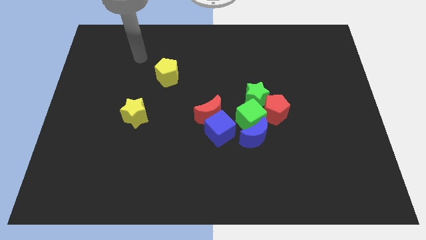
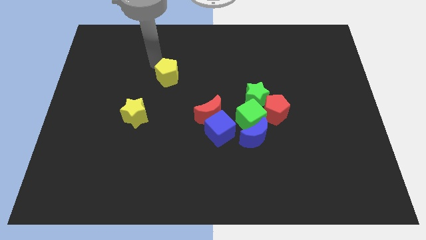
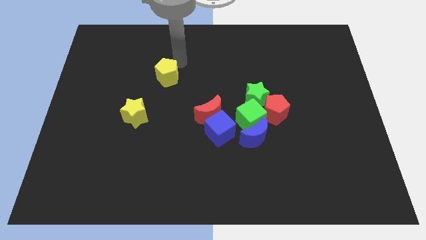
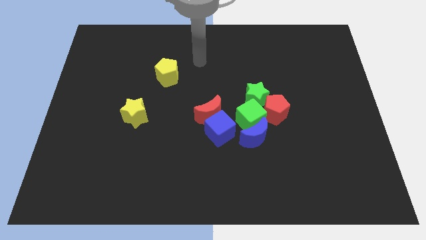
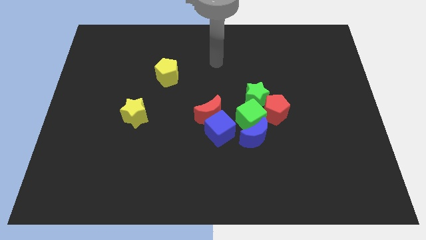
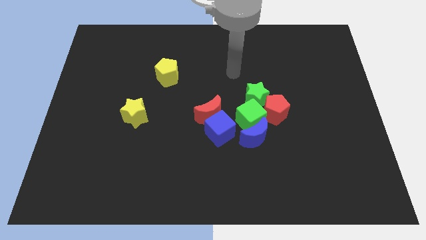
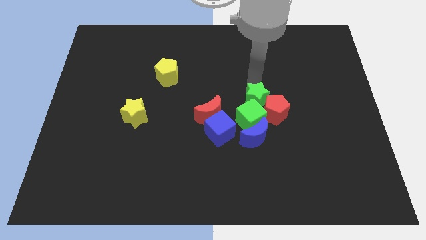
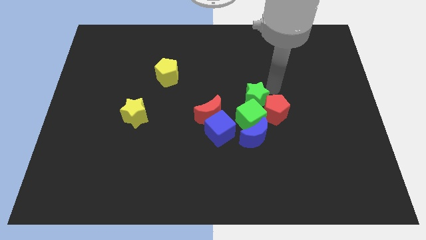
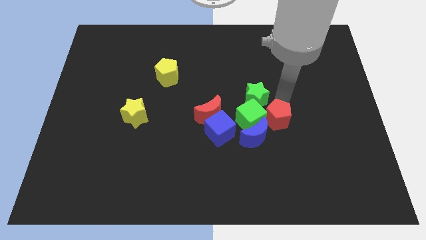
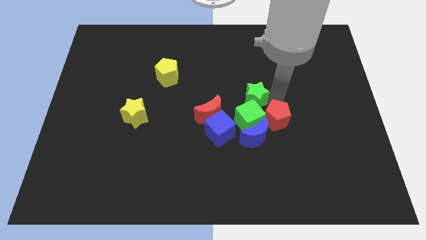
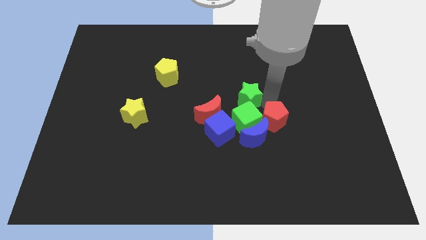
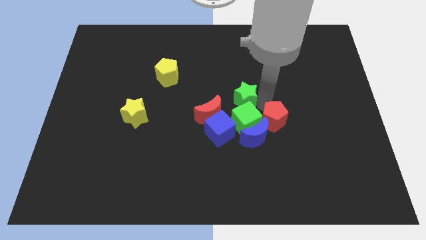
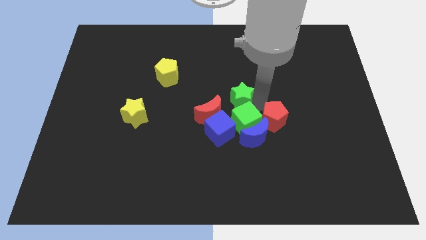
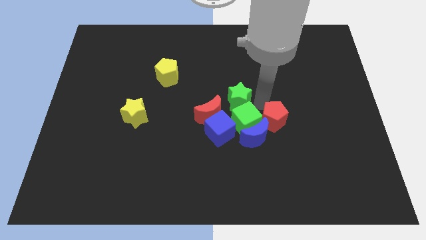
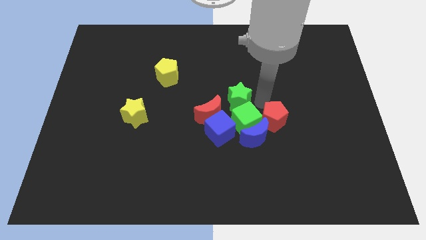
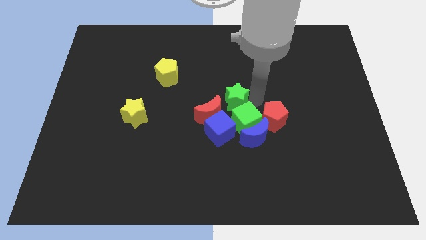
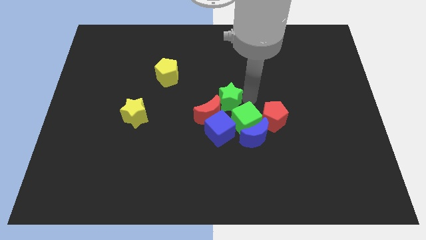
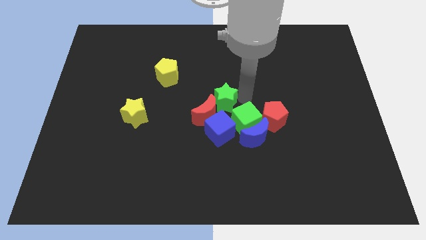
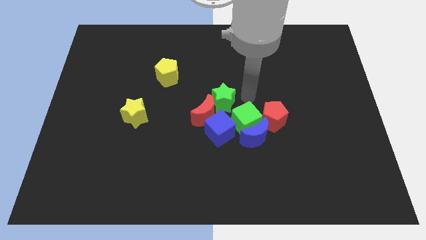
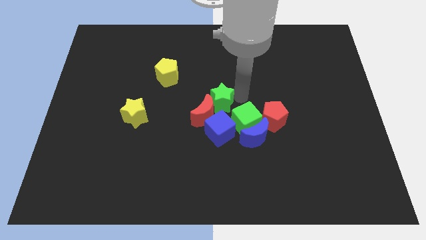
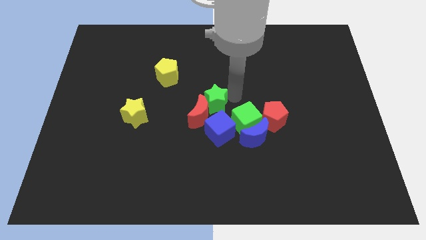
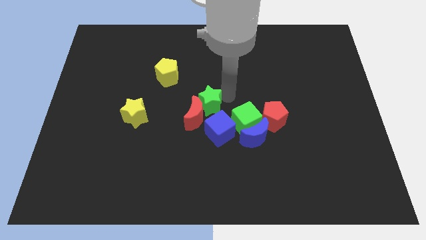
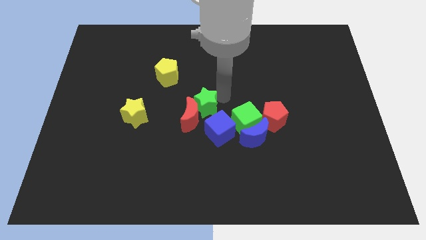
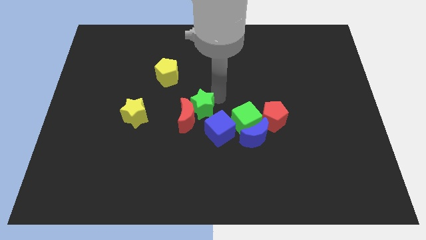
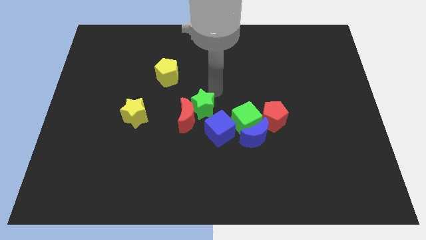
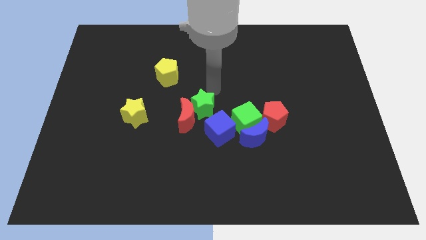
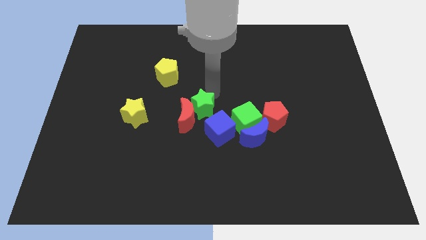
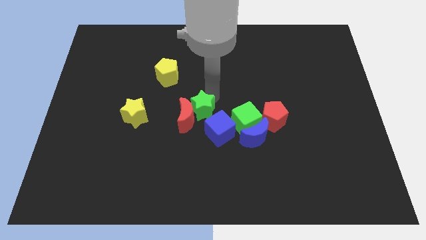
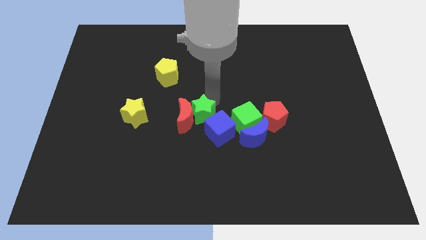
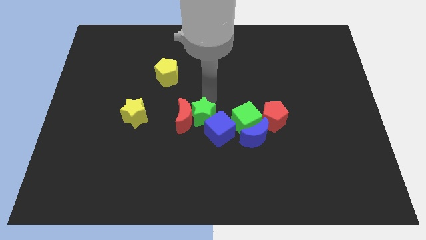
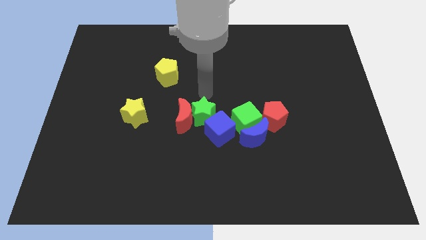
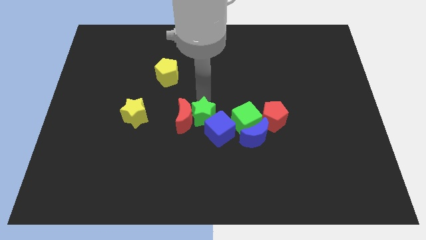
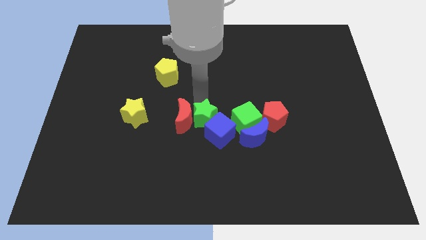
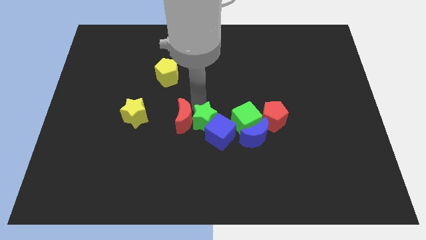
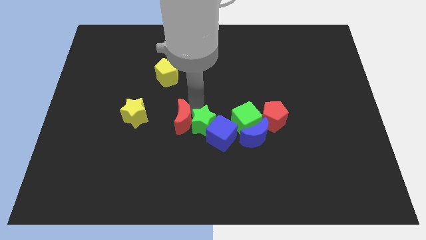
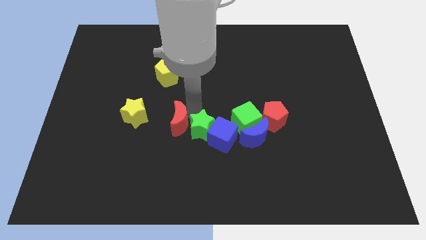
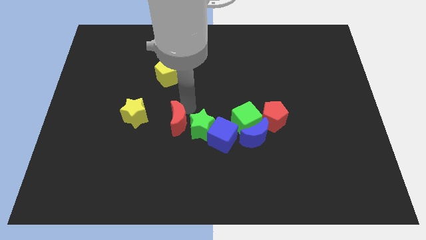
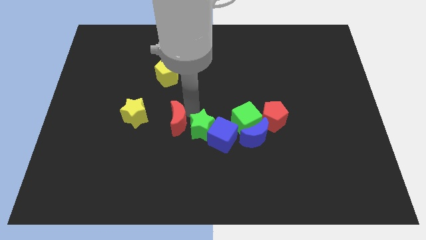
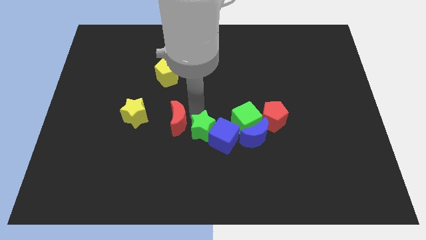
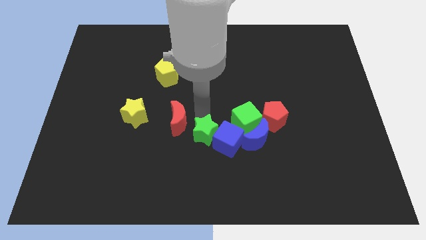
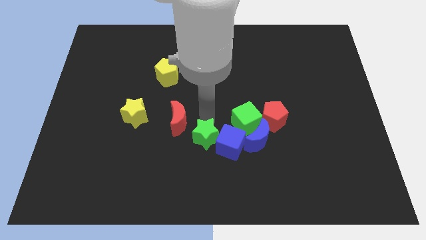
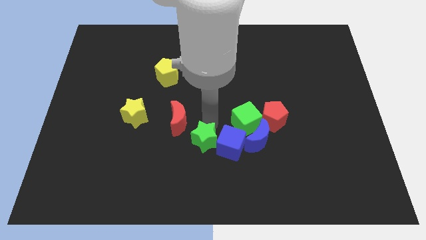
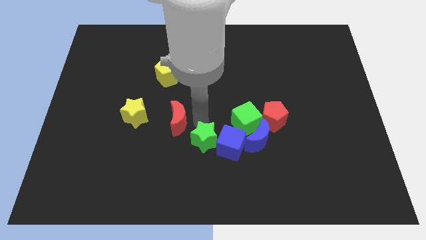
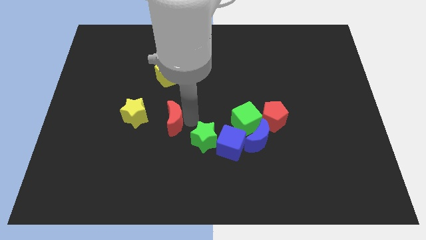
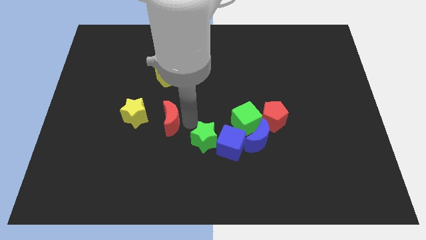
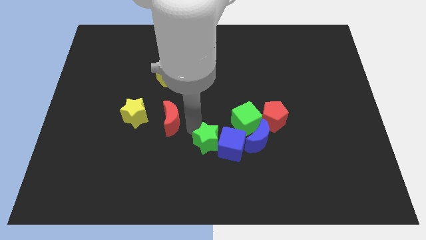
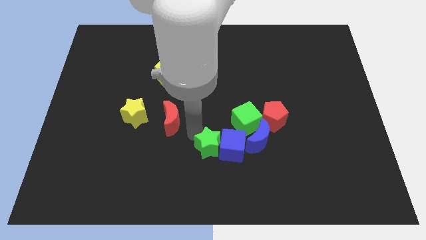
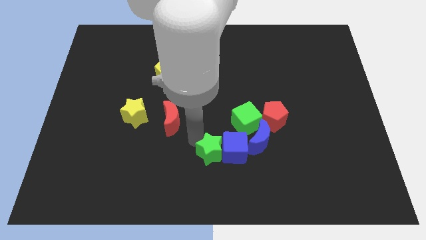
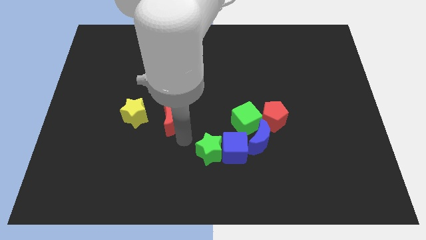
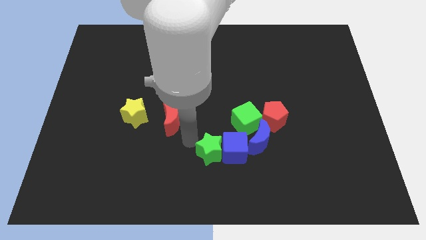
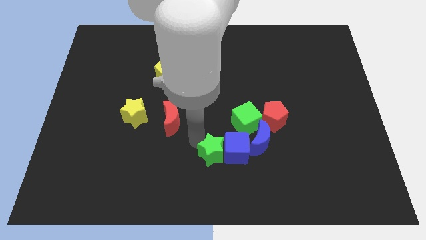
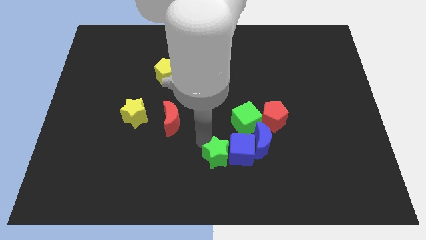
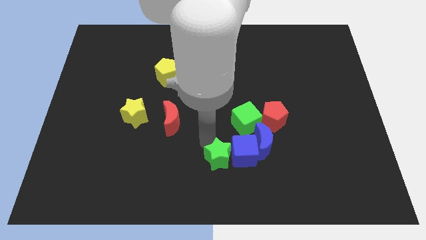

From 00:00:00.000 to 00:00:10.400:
slide the green star to the bottom left of the blue moon

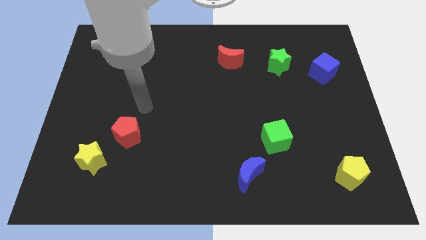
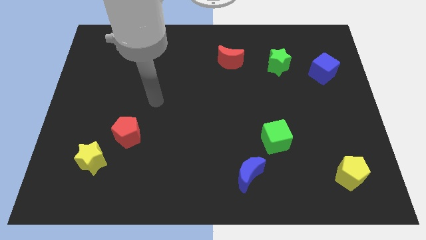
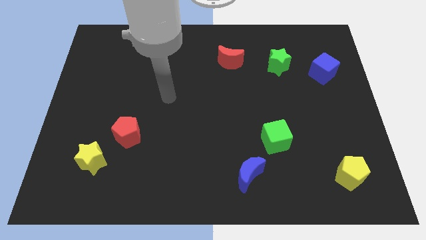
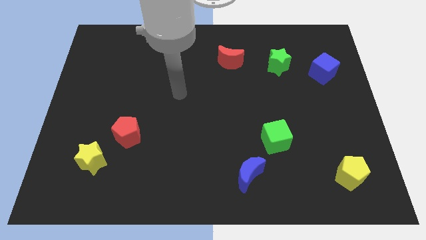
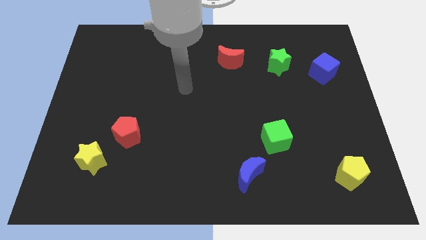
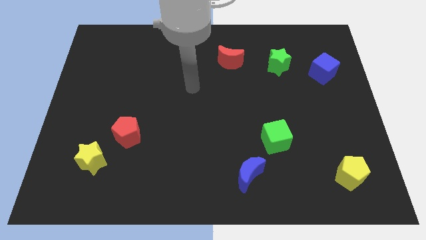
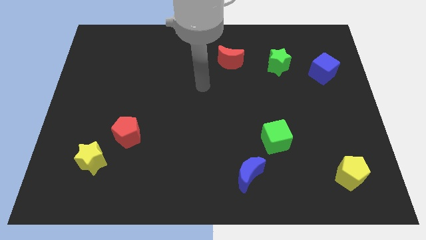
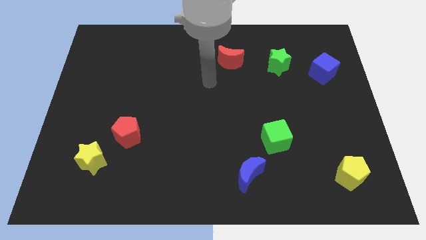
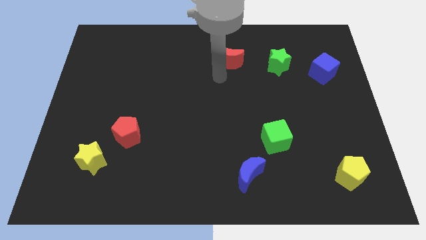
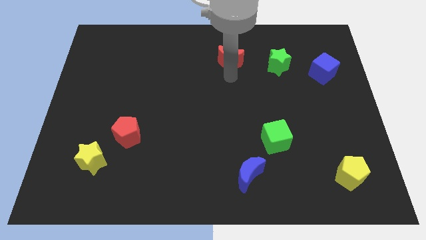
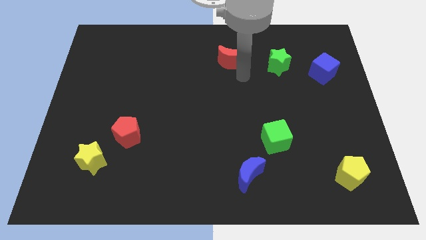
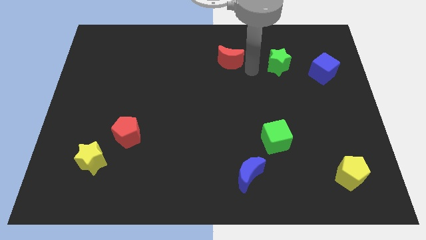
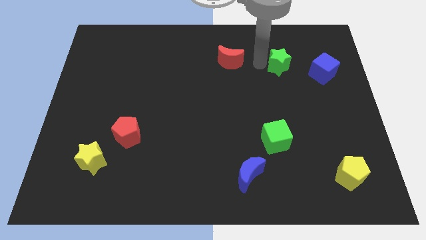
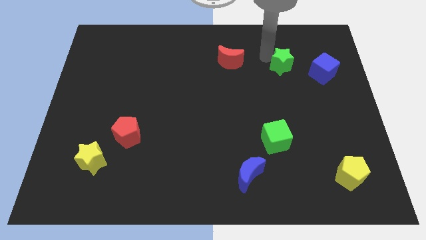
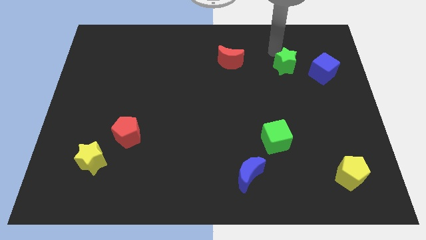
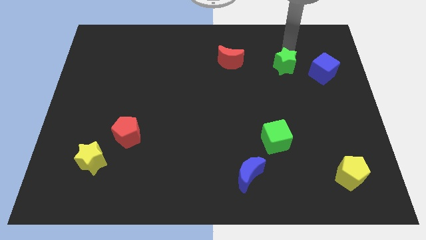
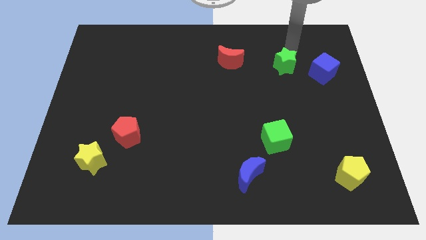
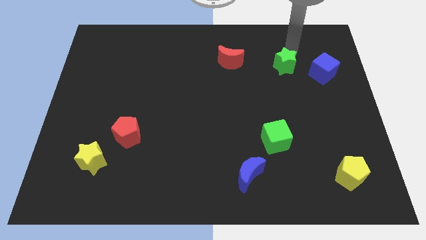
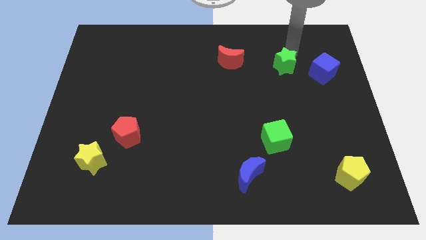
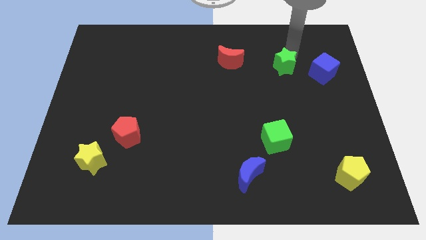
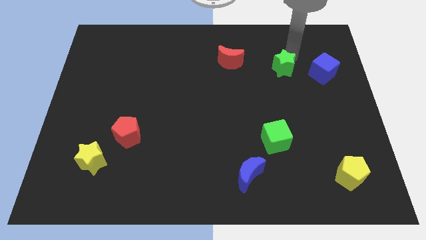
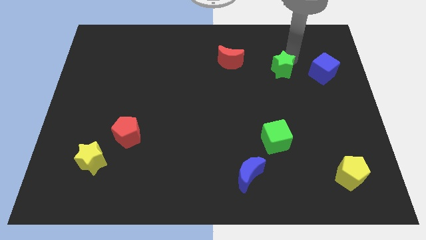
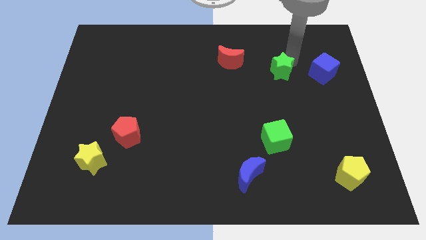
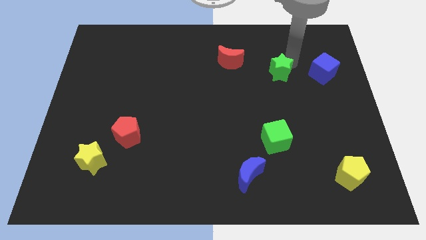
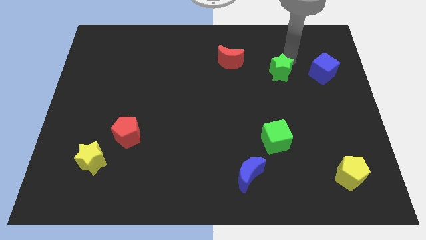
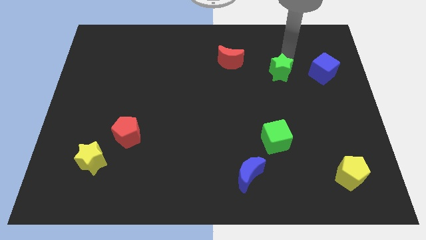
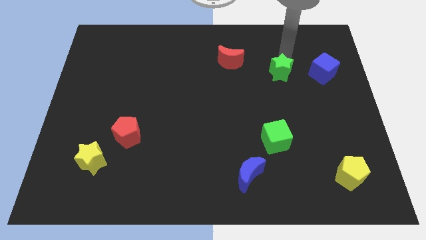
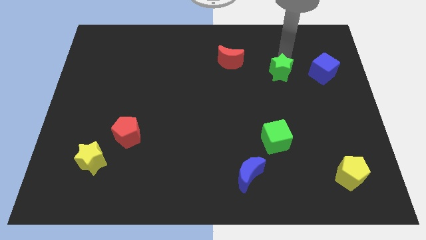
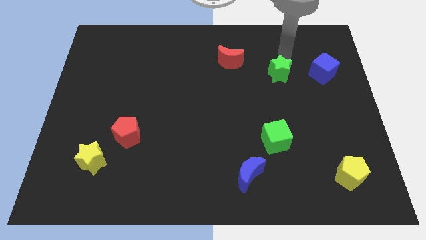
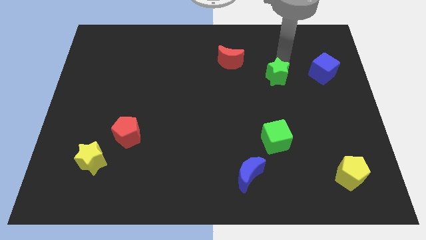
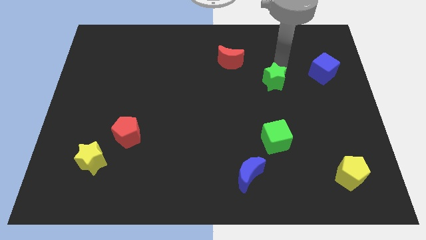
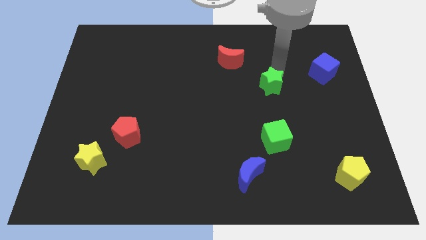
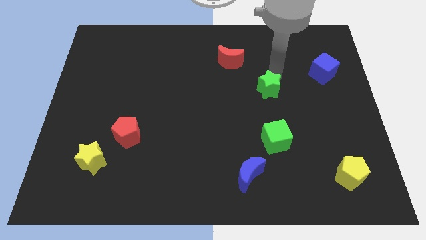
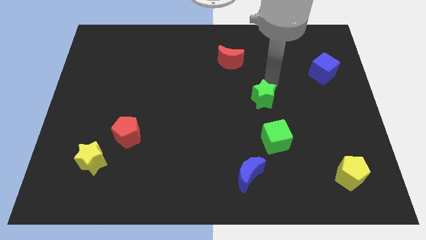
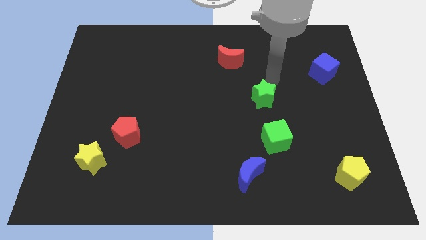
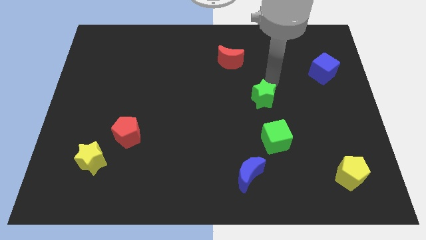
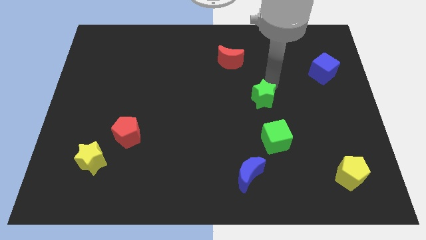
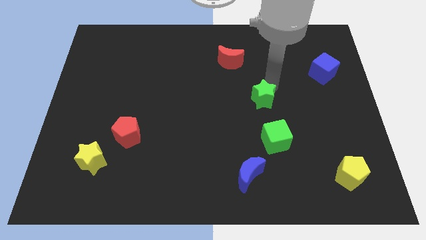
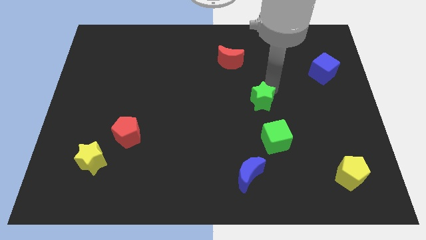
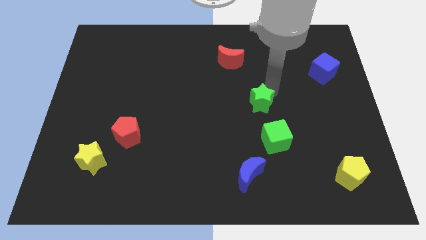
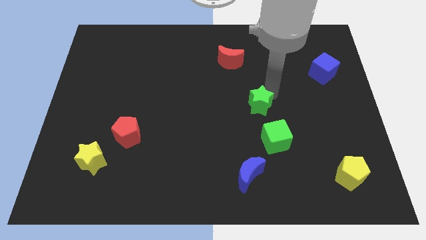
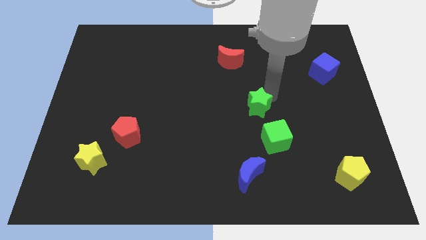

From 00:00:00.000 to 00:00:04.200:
slide the green star to the top left of the green cube
